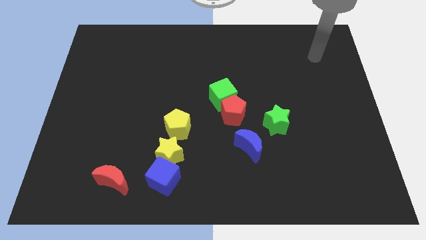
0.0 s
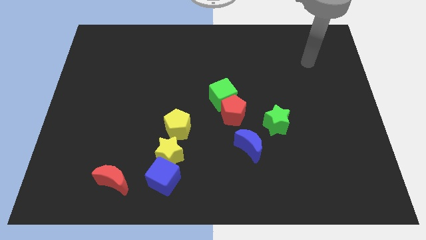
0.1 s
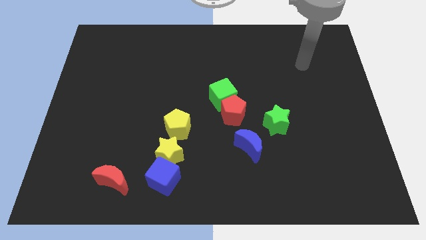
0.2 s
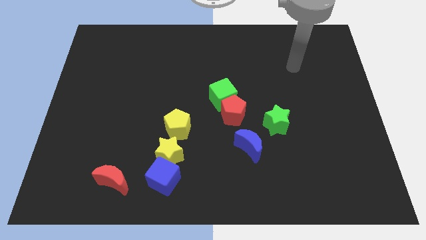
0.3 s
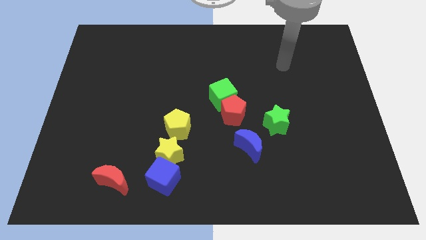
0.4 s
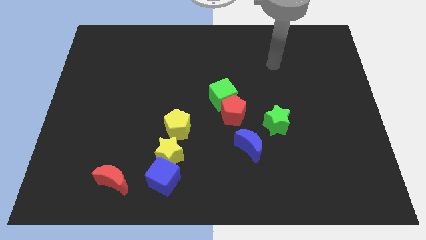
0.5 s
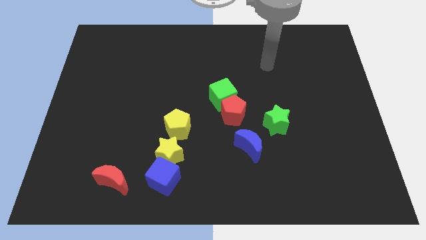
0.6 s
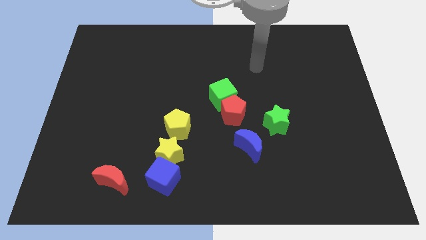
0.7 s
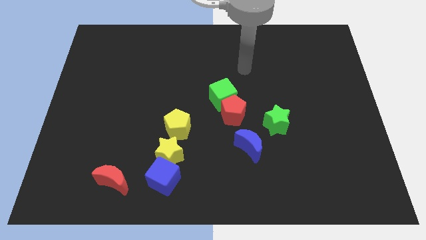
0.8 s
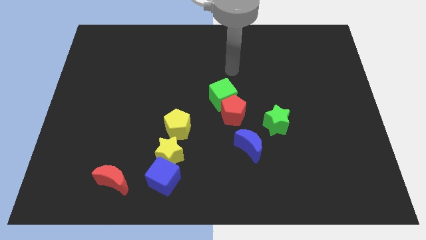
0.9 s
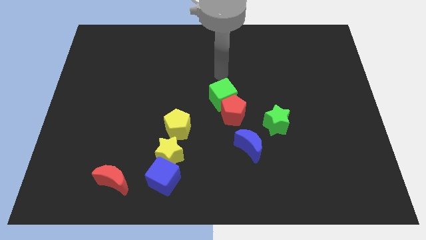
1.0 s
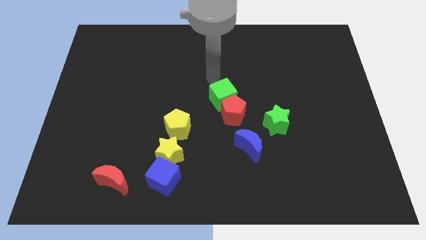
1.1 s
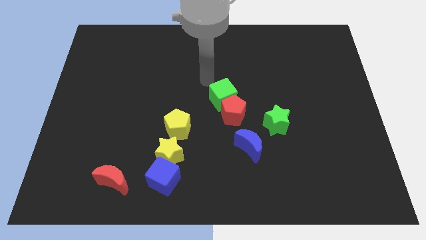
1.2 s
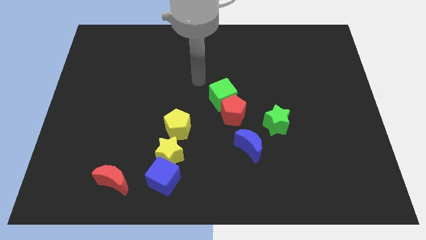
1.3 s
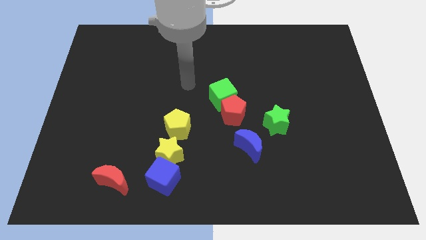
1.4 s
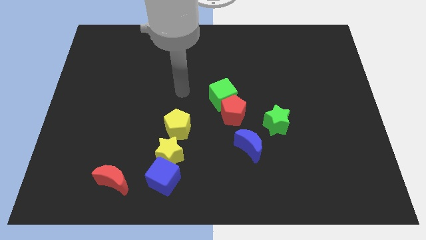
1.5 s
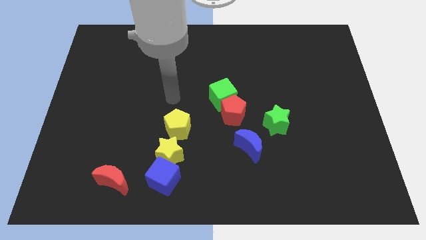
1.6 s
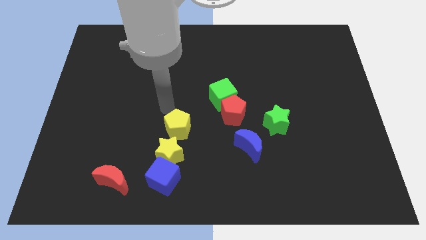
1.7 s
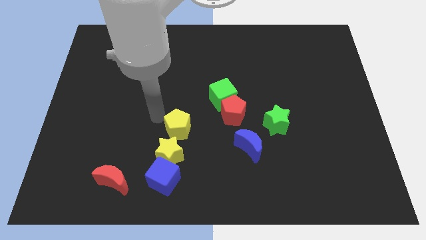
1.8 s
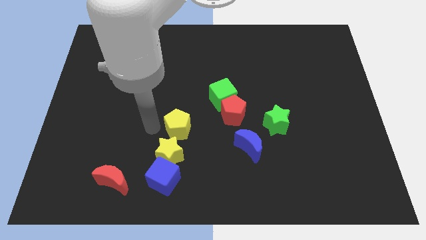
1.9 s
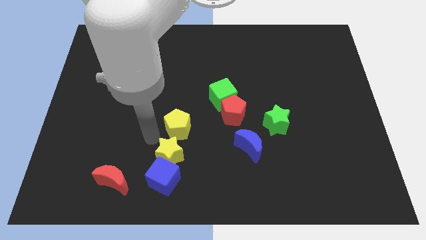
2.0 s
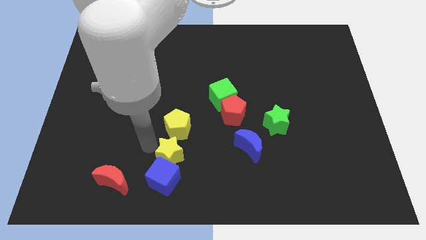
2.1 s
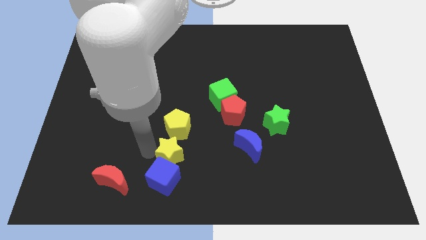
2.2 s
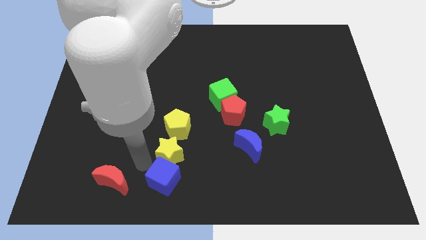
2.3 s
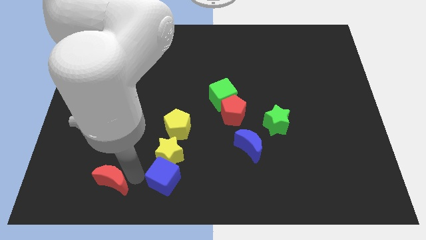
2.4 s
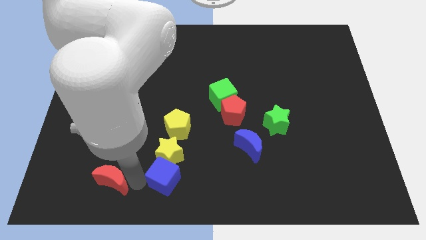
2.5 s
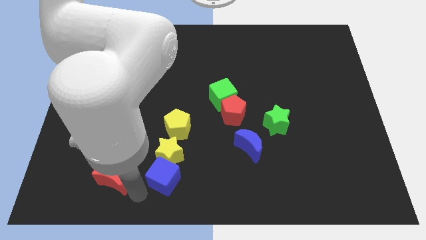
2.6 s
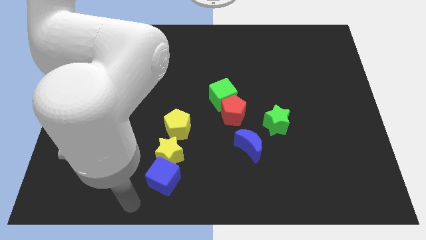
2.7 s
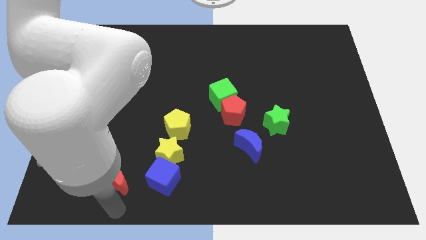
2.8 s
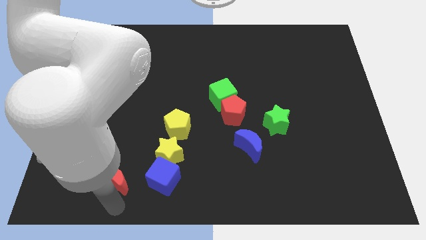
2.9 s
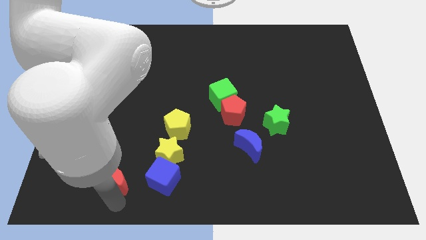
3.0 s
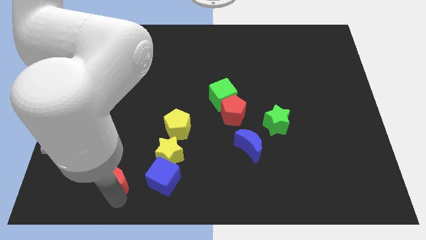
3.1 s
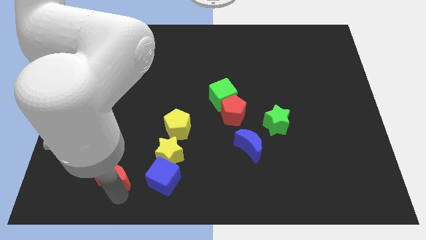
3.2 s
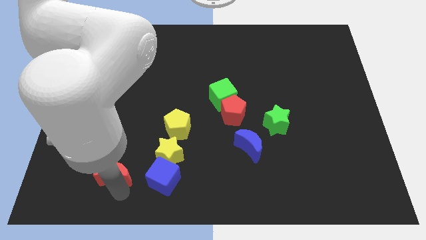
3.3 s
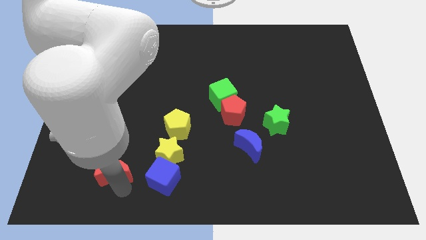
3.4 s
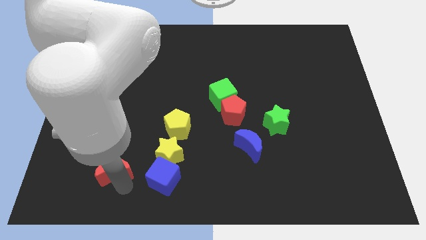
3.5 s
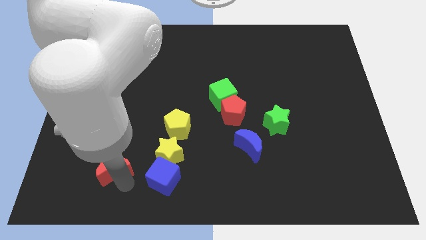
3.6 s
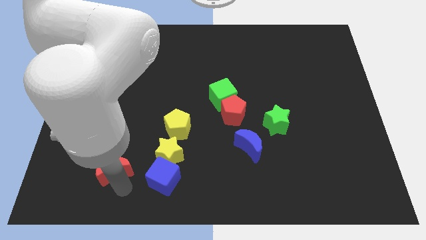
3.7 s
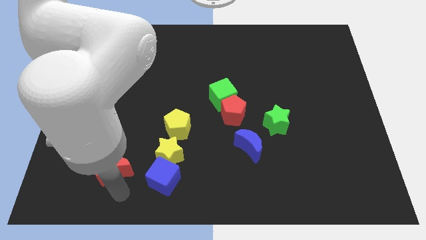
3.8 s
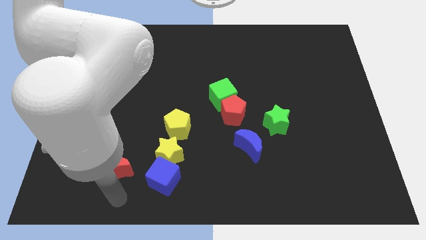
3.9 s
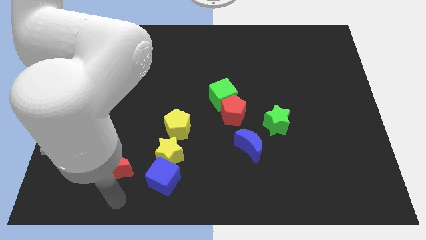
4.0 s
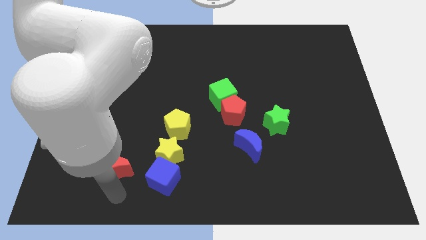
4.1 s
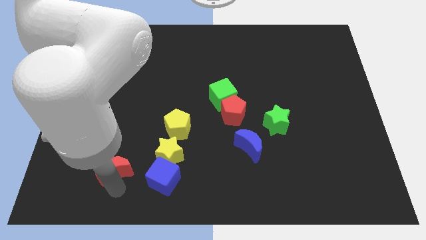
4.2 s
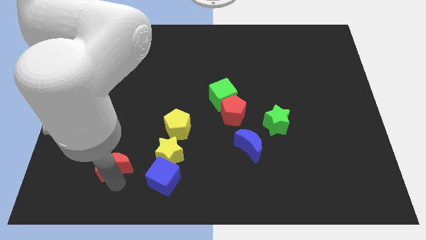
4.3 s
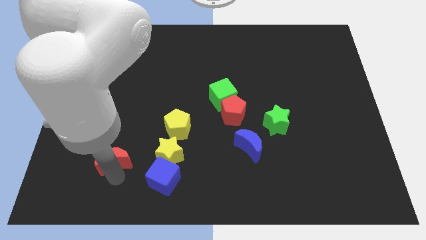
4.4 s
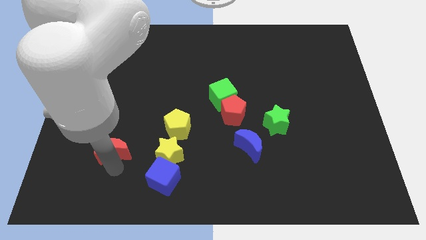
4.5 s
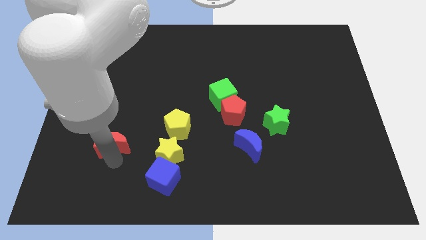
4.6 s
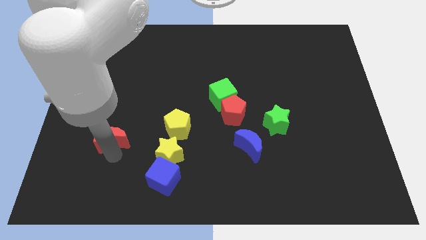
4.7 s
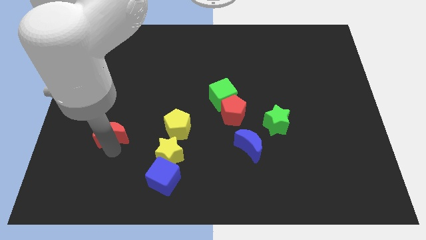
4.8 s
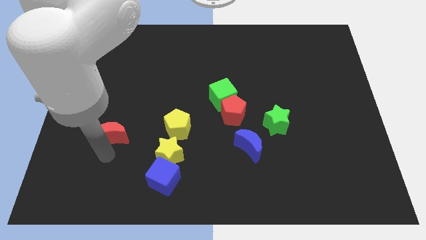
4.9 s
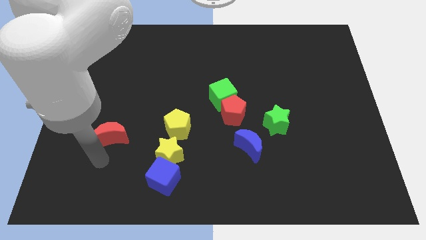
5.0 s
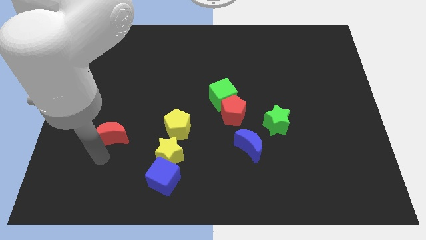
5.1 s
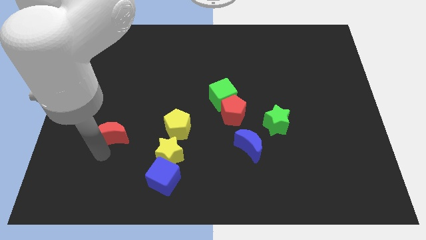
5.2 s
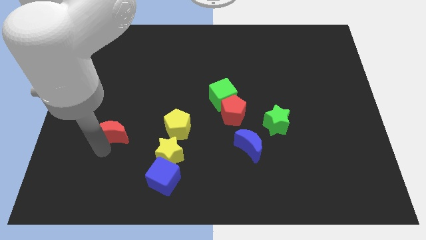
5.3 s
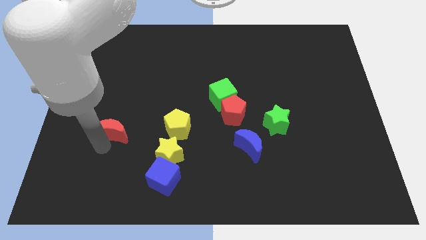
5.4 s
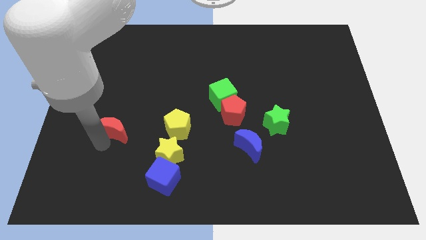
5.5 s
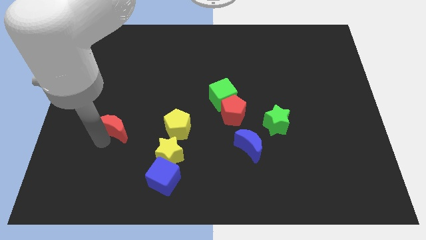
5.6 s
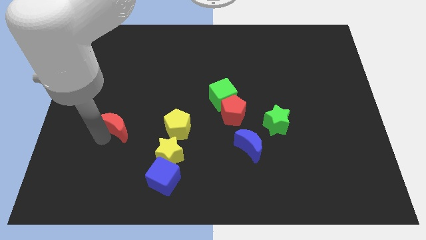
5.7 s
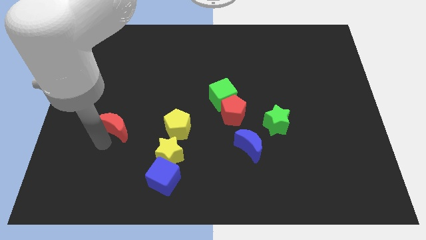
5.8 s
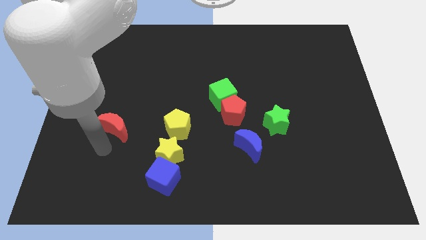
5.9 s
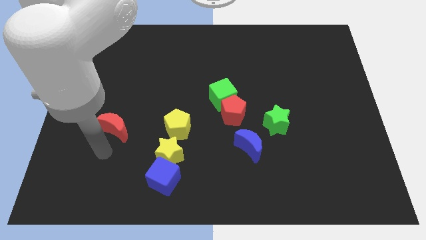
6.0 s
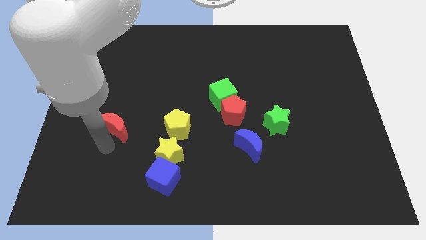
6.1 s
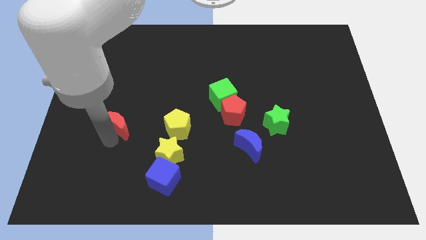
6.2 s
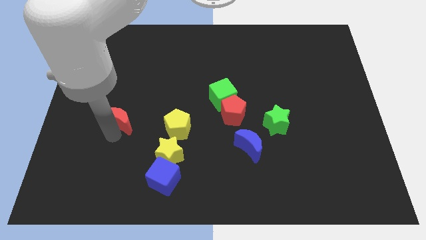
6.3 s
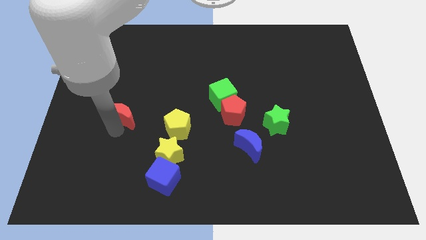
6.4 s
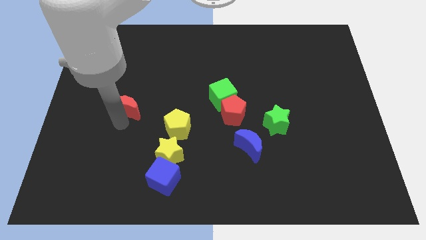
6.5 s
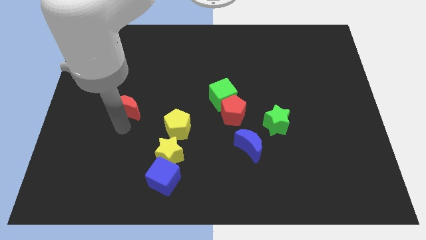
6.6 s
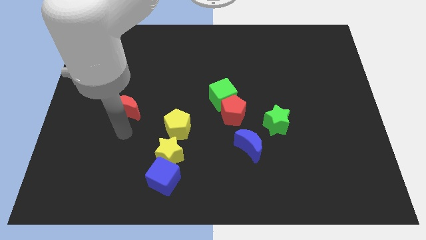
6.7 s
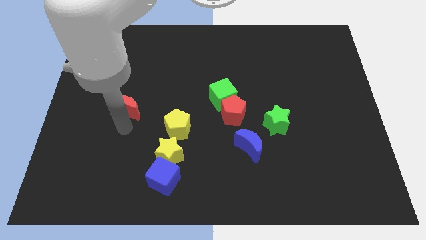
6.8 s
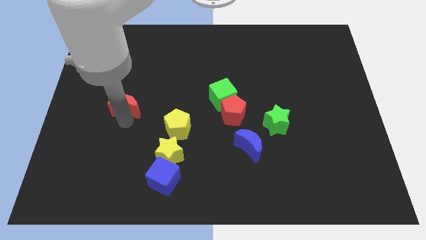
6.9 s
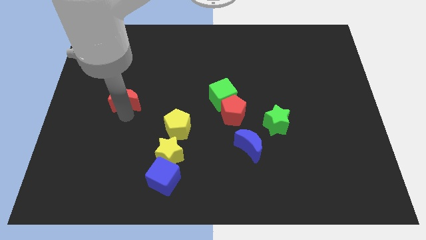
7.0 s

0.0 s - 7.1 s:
push the red moon upwards

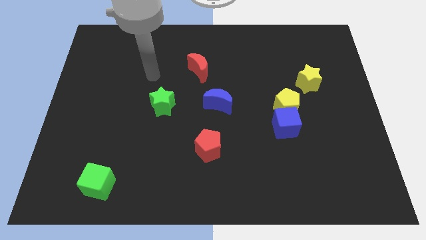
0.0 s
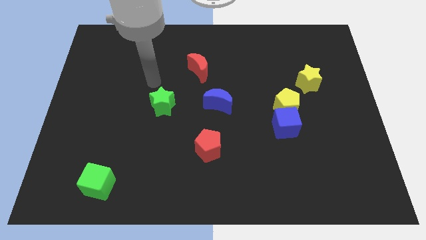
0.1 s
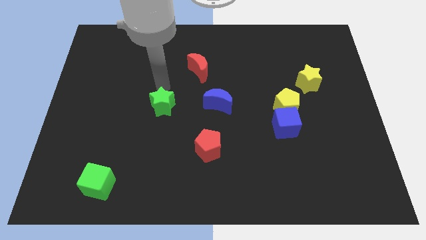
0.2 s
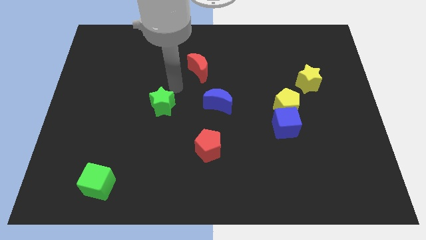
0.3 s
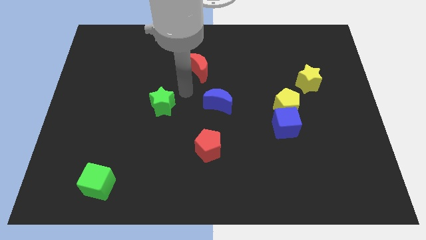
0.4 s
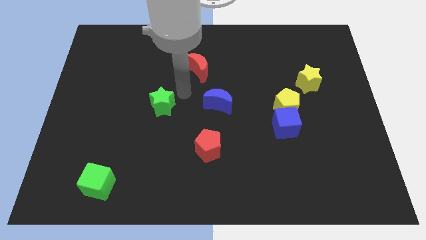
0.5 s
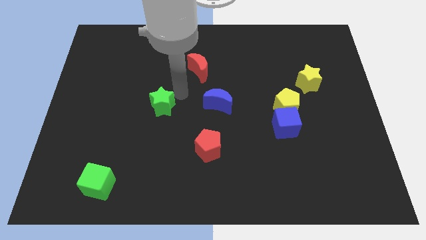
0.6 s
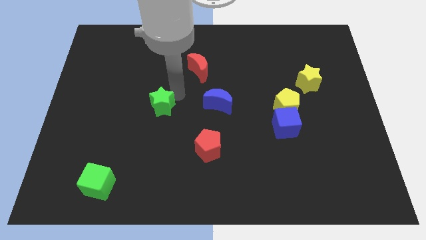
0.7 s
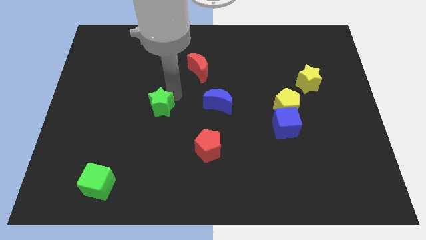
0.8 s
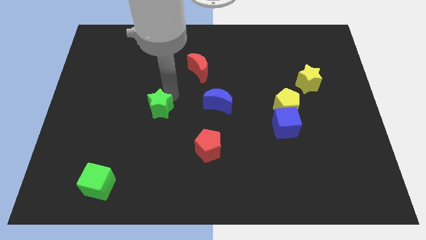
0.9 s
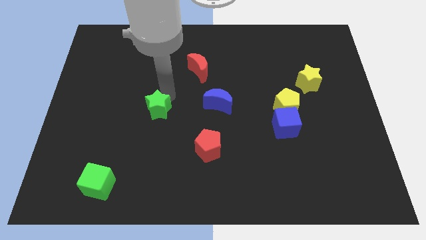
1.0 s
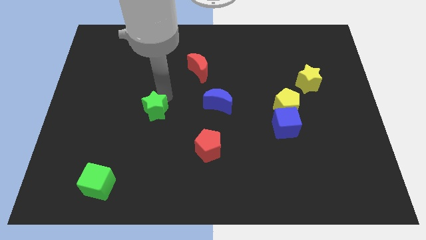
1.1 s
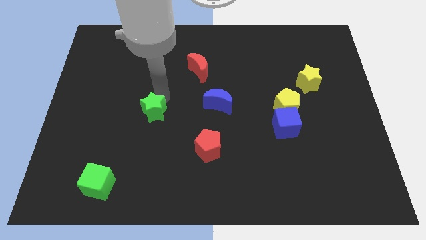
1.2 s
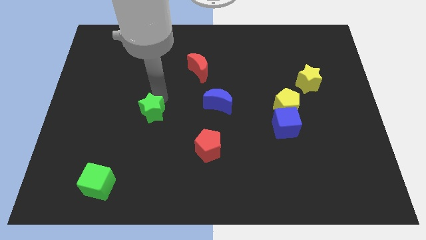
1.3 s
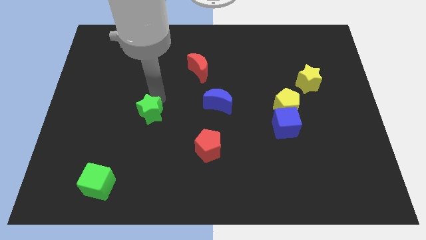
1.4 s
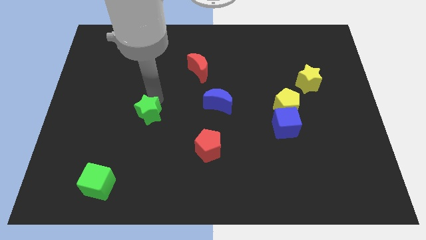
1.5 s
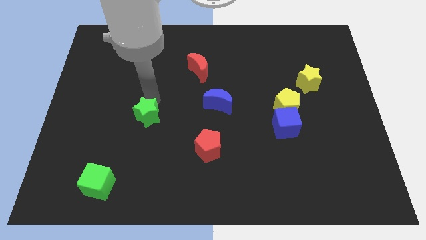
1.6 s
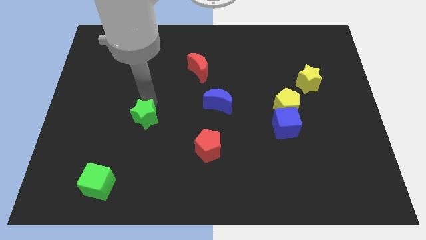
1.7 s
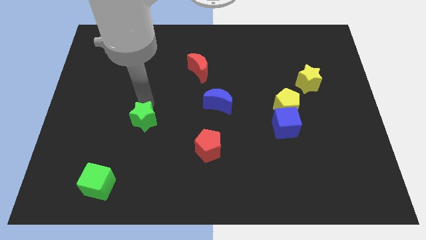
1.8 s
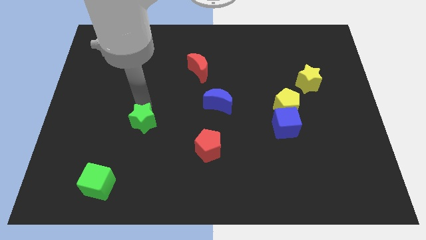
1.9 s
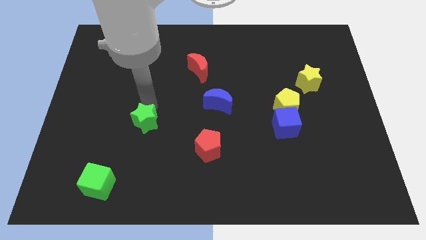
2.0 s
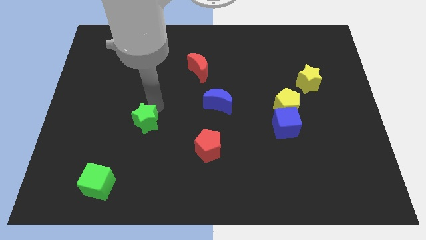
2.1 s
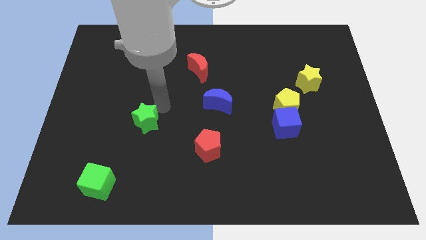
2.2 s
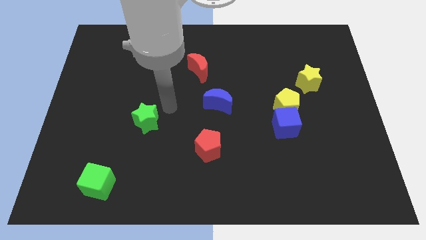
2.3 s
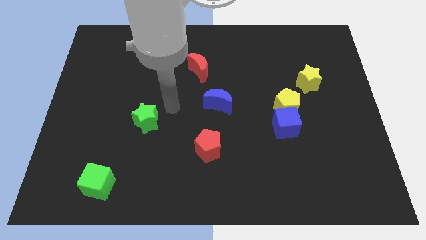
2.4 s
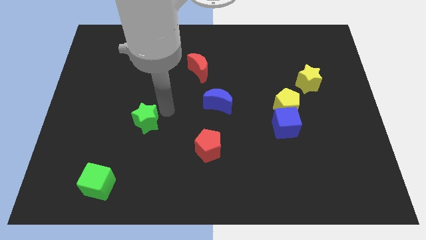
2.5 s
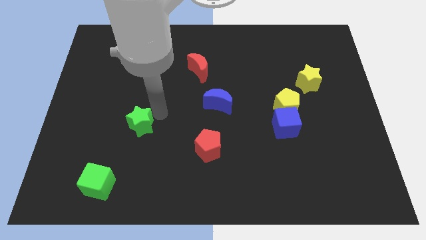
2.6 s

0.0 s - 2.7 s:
push the green star down and left slightly
